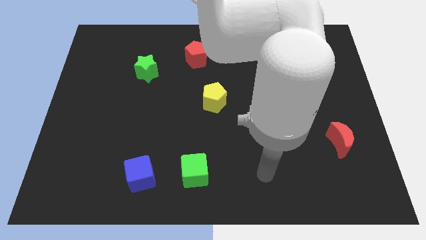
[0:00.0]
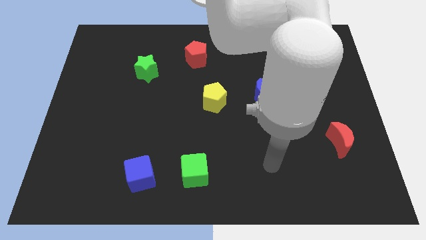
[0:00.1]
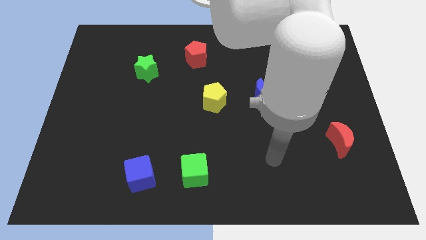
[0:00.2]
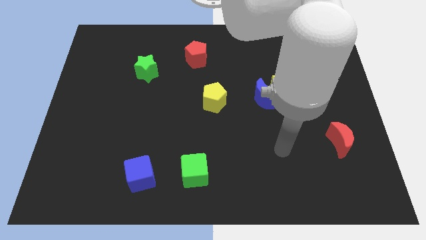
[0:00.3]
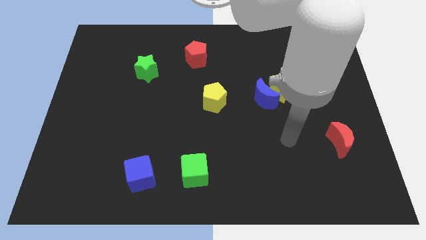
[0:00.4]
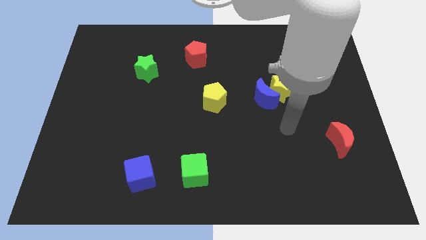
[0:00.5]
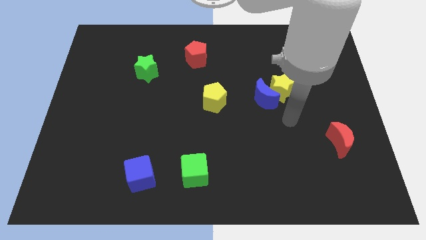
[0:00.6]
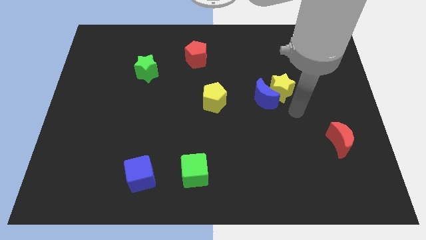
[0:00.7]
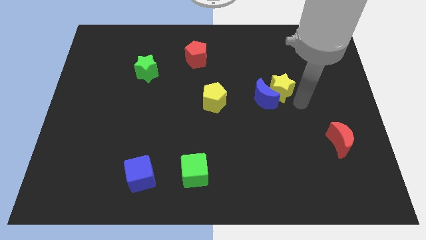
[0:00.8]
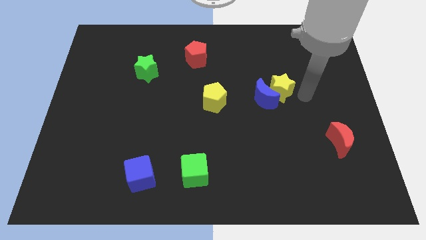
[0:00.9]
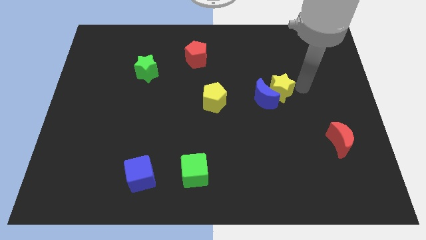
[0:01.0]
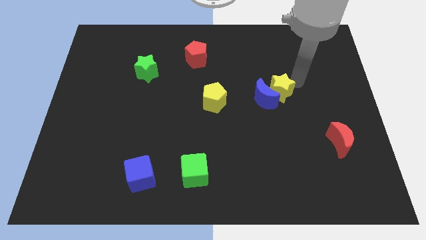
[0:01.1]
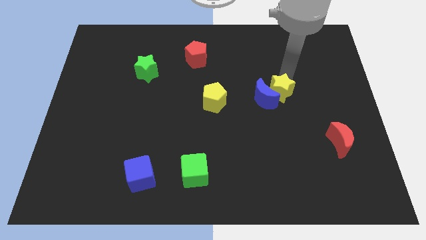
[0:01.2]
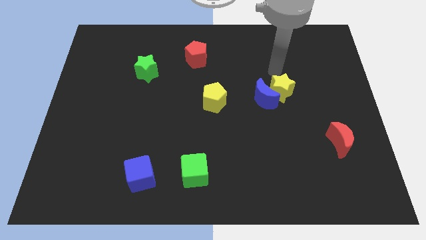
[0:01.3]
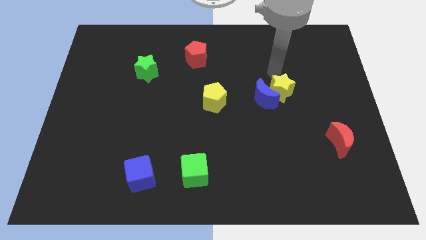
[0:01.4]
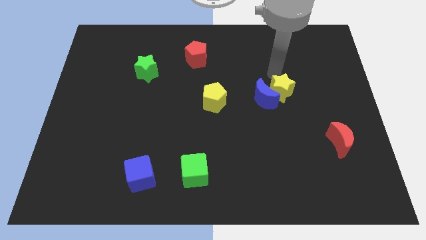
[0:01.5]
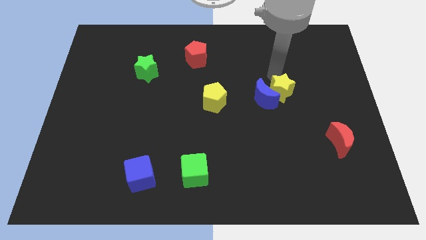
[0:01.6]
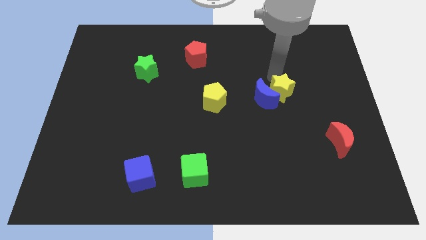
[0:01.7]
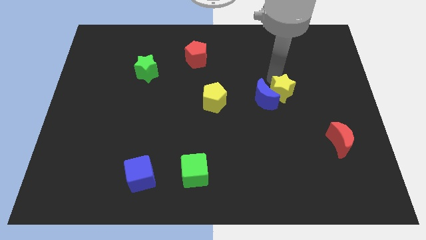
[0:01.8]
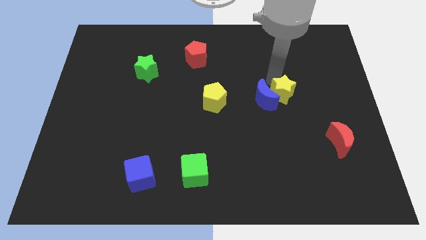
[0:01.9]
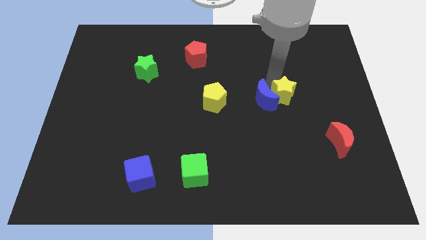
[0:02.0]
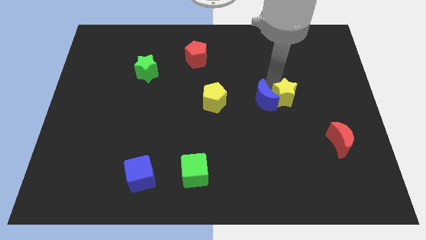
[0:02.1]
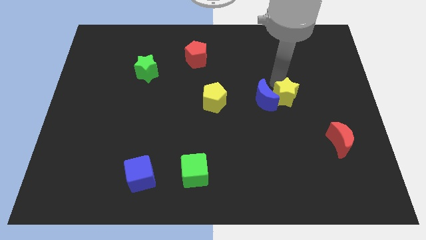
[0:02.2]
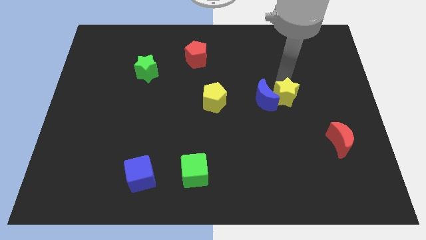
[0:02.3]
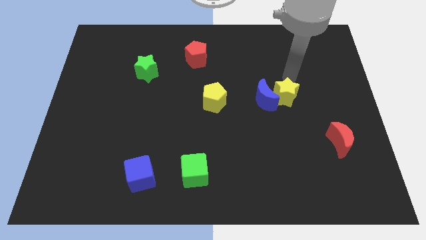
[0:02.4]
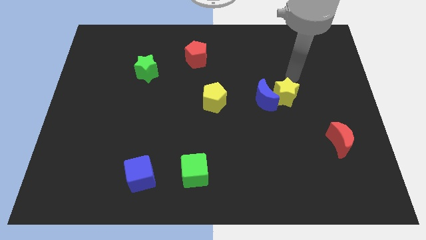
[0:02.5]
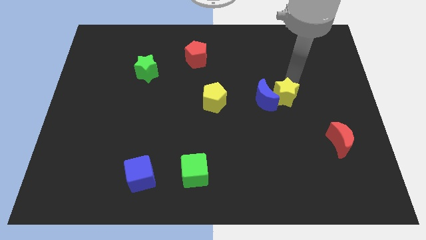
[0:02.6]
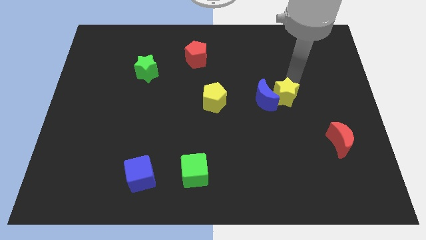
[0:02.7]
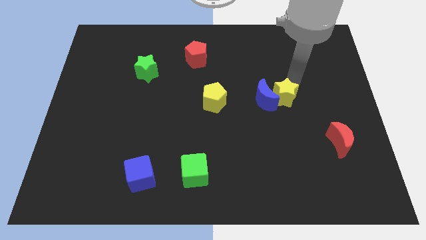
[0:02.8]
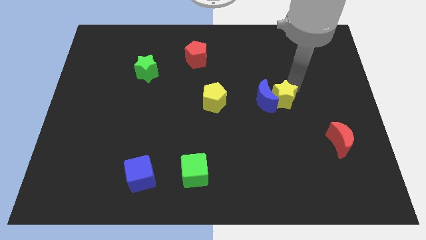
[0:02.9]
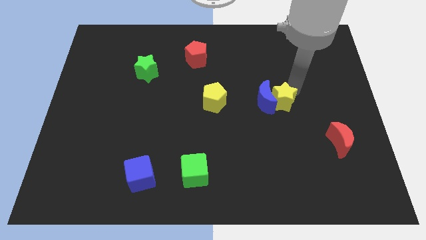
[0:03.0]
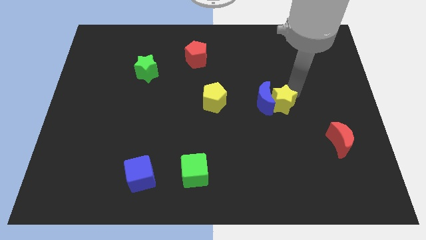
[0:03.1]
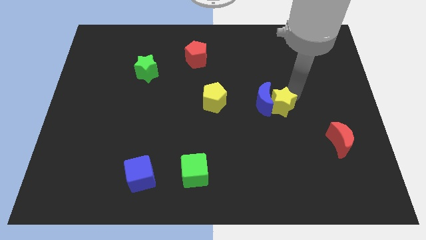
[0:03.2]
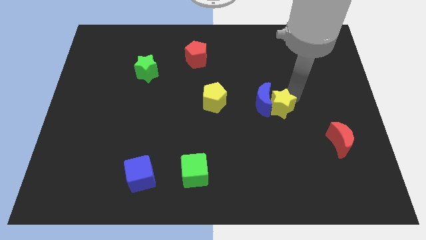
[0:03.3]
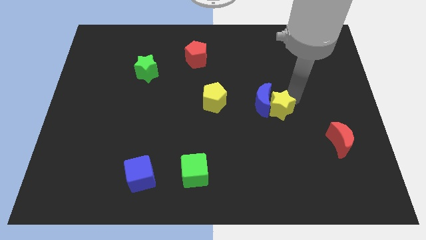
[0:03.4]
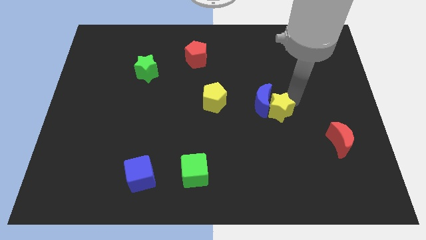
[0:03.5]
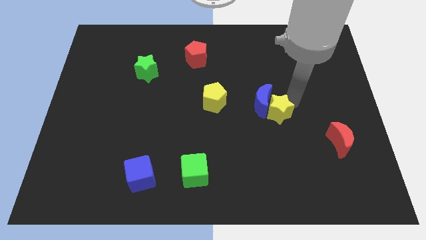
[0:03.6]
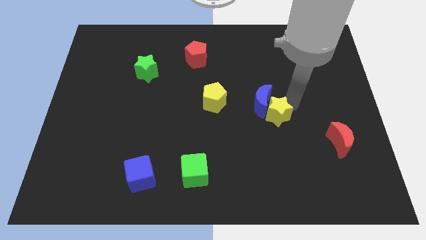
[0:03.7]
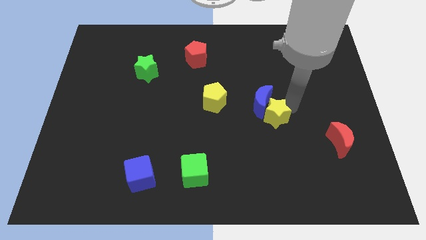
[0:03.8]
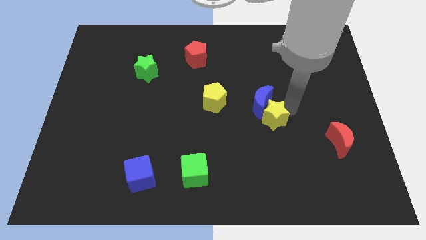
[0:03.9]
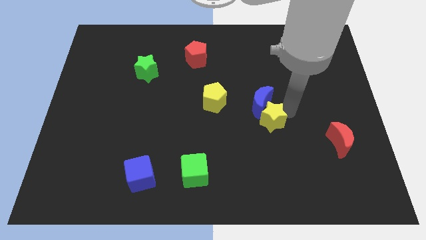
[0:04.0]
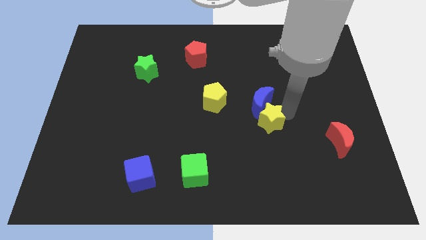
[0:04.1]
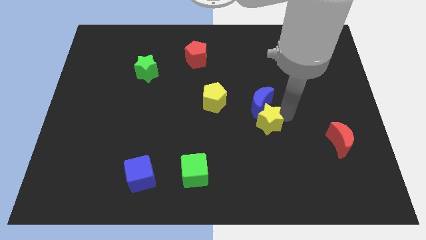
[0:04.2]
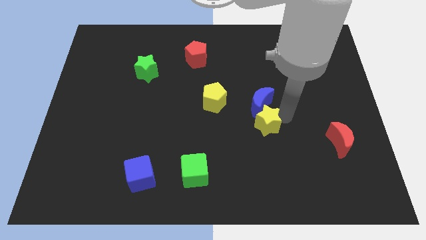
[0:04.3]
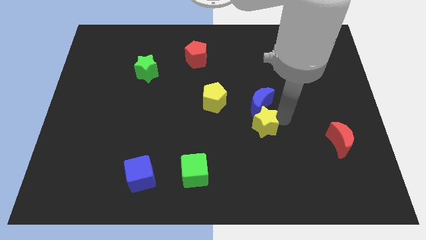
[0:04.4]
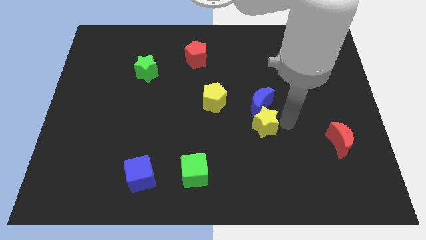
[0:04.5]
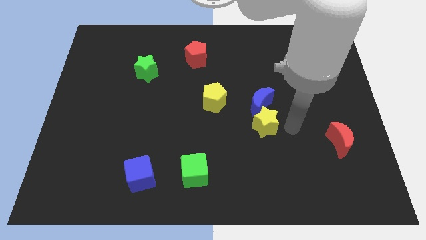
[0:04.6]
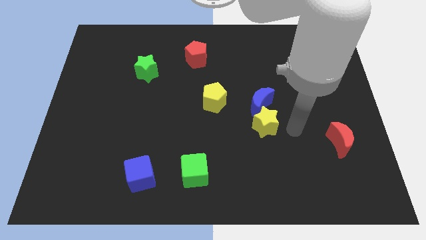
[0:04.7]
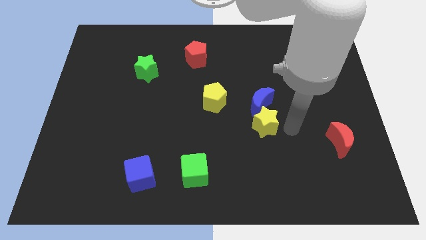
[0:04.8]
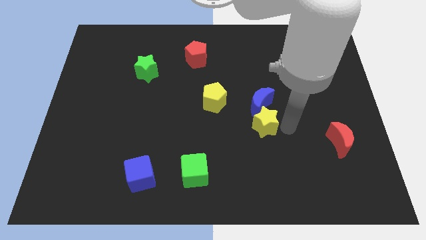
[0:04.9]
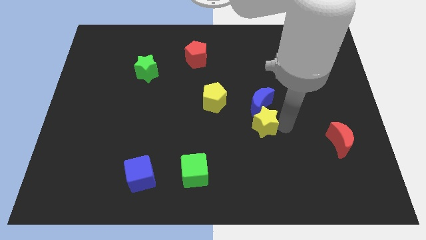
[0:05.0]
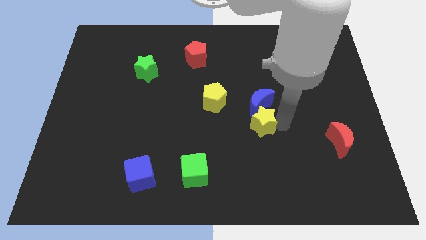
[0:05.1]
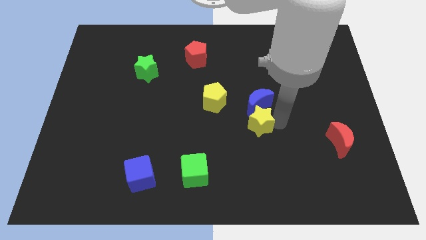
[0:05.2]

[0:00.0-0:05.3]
move the yellow star to the bottom right of the yellow pentagon

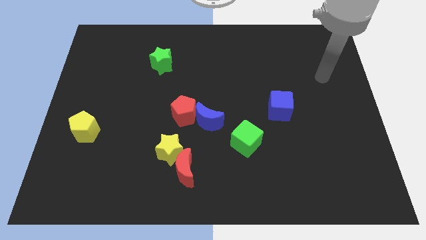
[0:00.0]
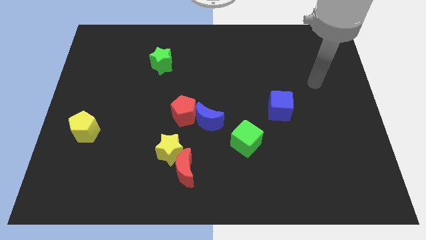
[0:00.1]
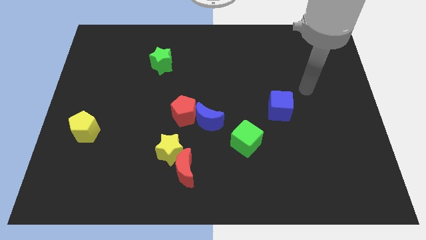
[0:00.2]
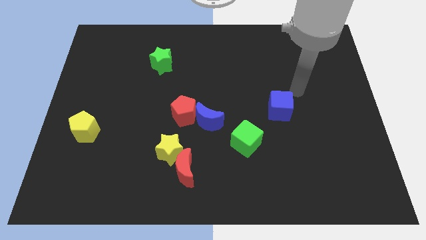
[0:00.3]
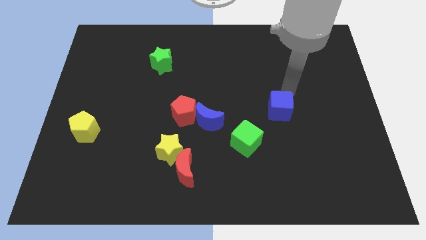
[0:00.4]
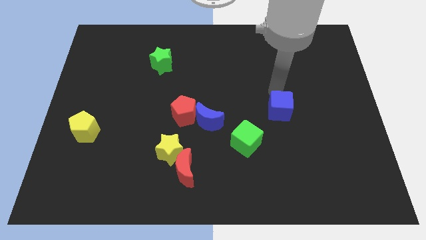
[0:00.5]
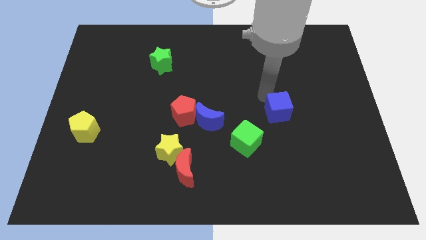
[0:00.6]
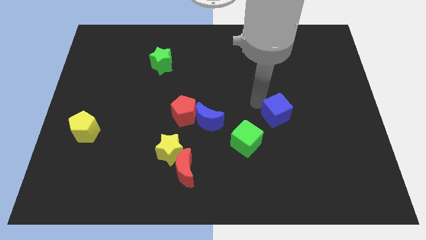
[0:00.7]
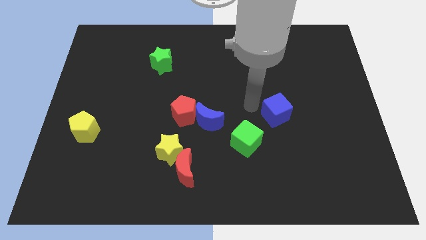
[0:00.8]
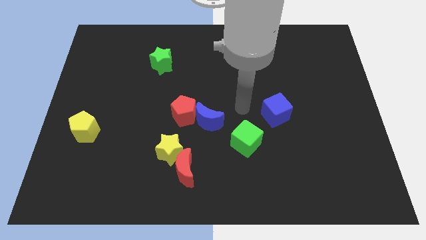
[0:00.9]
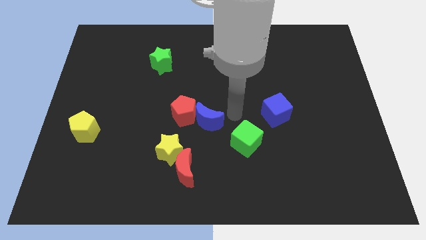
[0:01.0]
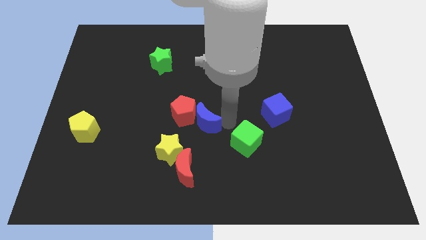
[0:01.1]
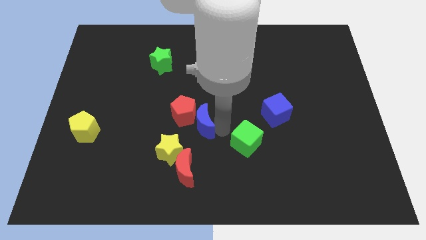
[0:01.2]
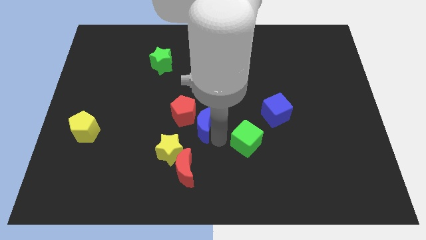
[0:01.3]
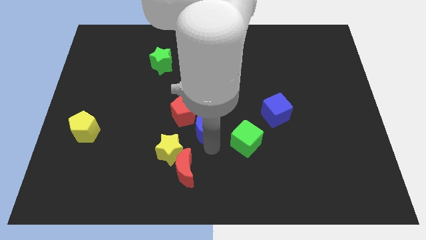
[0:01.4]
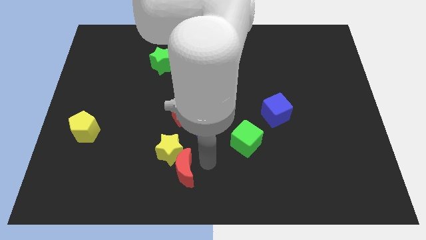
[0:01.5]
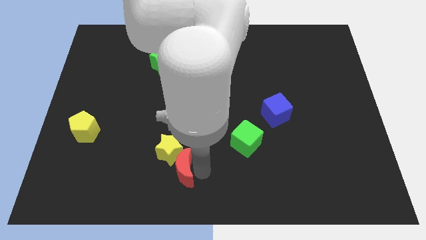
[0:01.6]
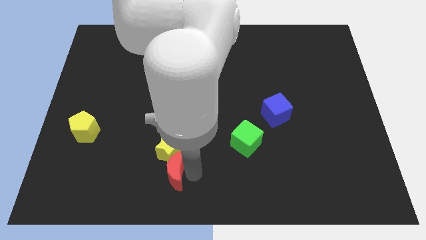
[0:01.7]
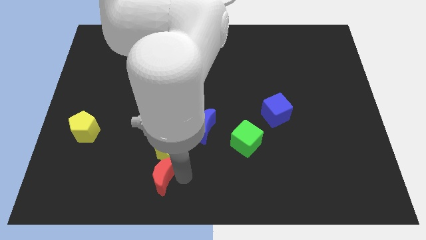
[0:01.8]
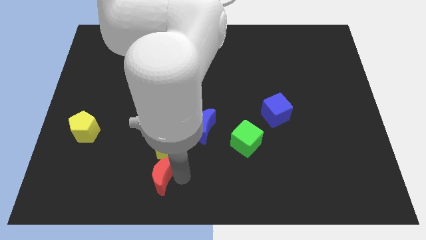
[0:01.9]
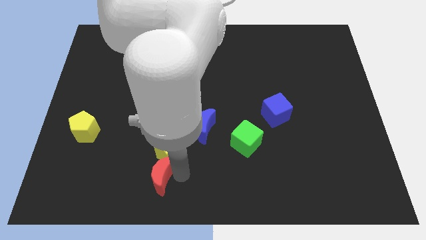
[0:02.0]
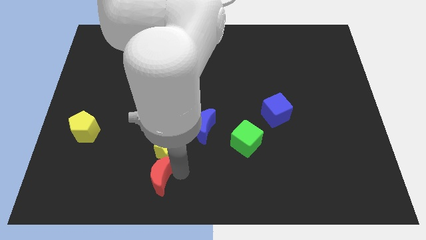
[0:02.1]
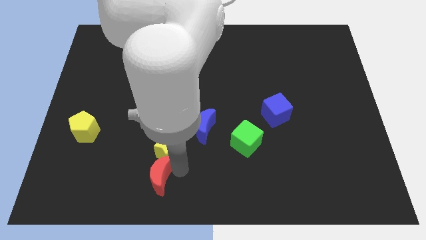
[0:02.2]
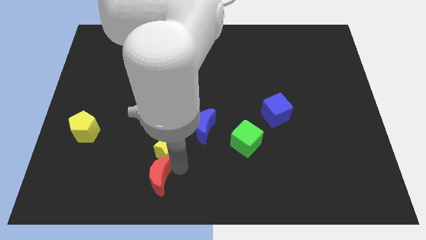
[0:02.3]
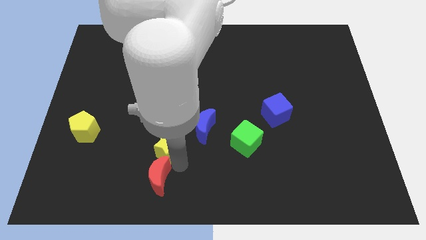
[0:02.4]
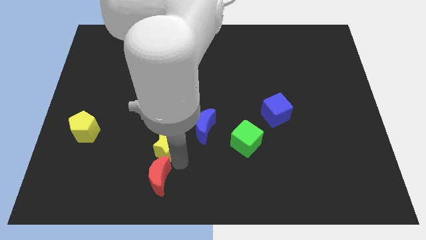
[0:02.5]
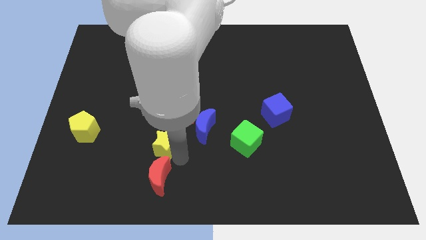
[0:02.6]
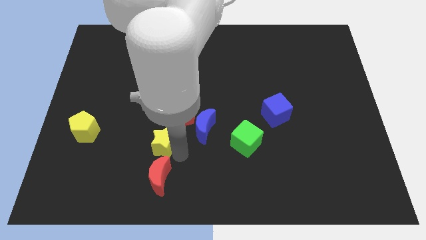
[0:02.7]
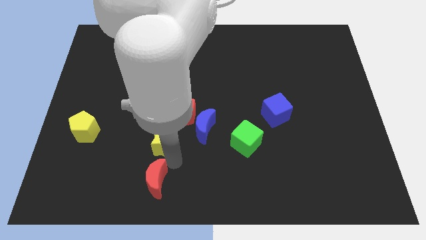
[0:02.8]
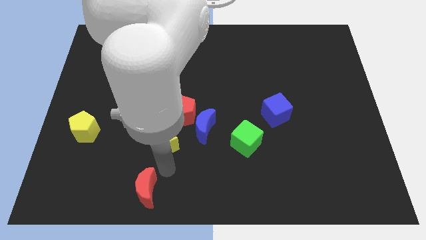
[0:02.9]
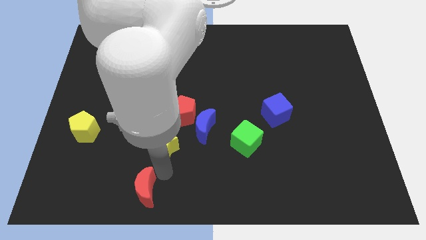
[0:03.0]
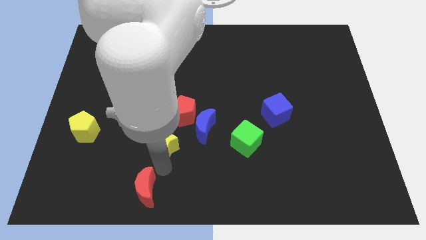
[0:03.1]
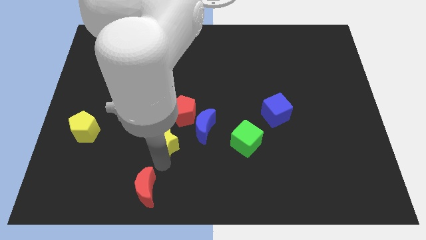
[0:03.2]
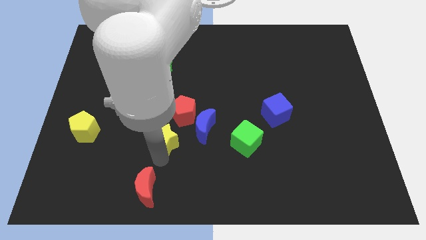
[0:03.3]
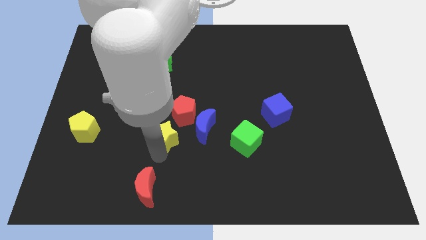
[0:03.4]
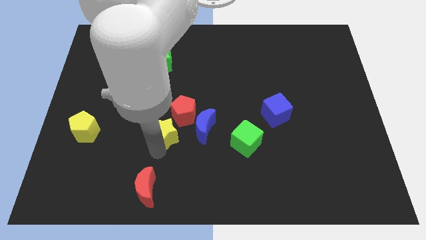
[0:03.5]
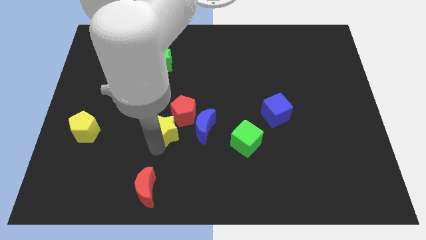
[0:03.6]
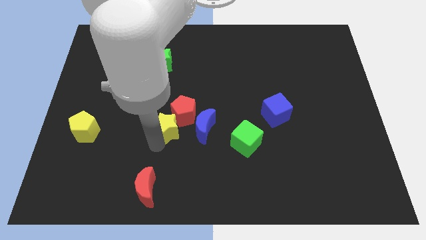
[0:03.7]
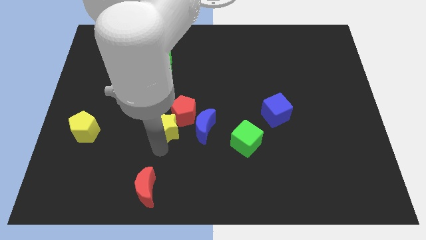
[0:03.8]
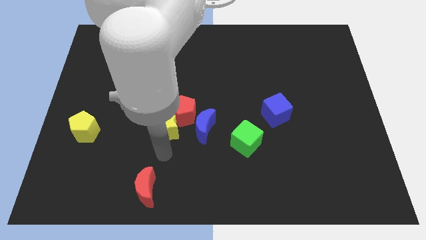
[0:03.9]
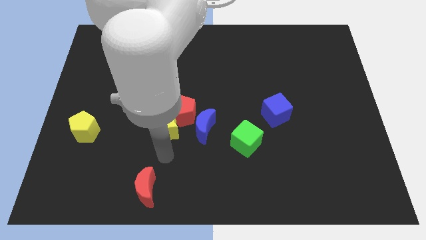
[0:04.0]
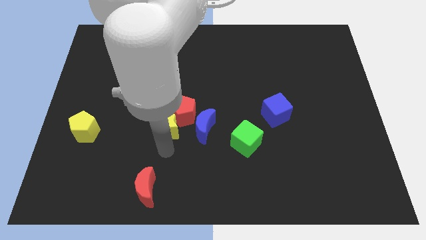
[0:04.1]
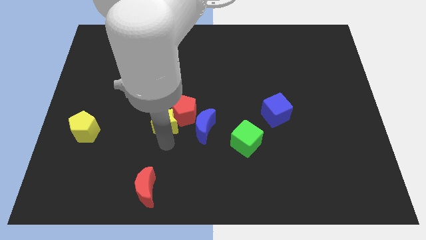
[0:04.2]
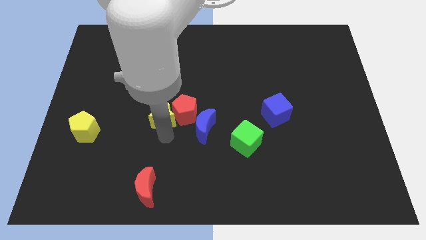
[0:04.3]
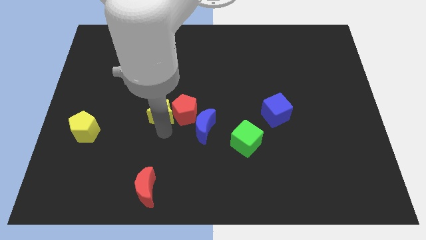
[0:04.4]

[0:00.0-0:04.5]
push the yellow star diagonally up and to the left of the red pentagon
